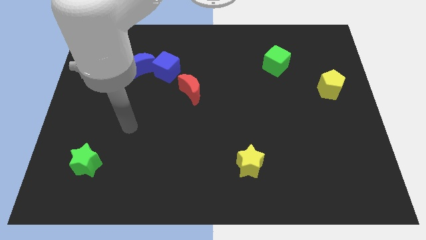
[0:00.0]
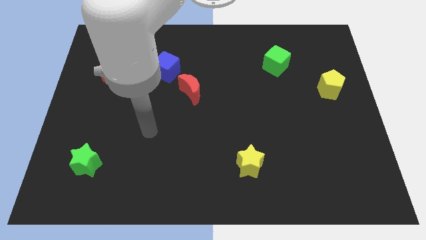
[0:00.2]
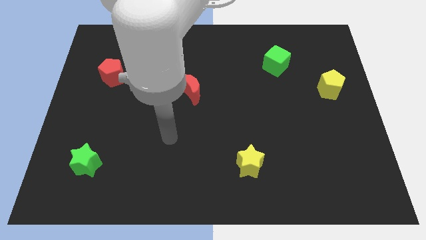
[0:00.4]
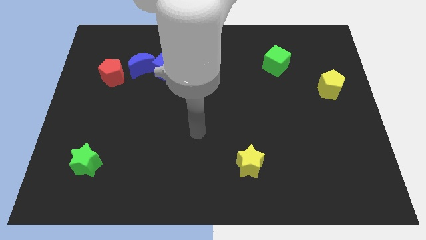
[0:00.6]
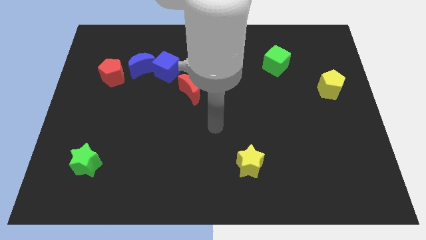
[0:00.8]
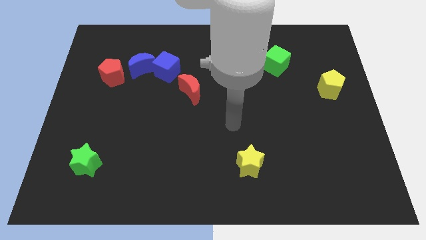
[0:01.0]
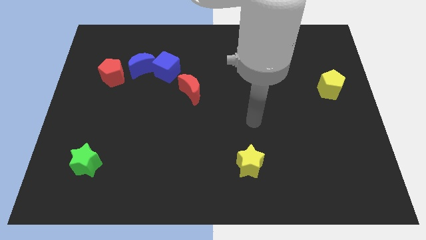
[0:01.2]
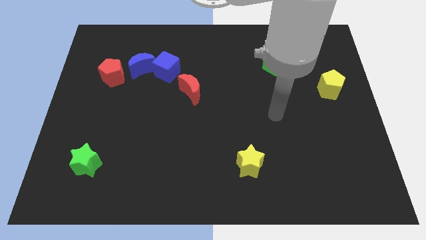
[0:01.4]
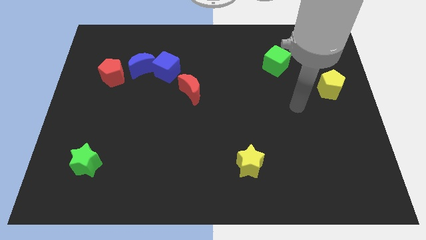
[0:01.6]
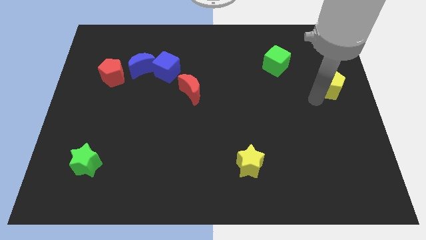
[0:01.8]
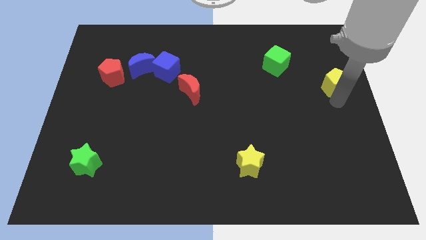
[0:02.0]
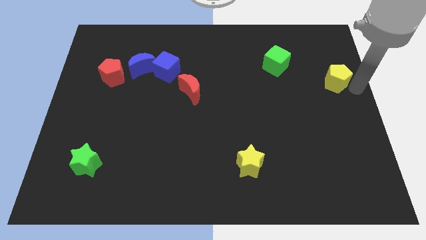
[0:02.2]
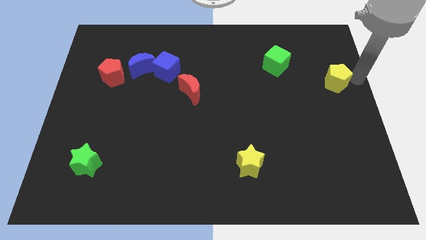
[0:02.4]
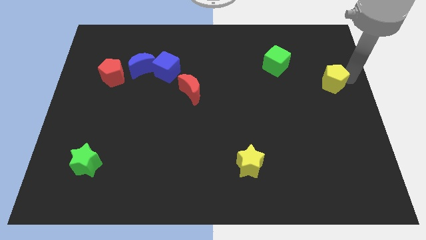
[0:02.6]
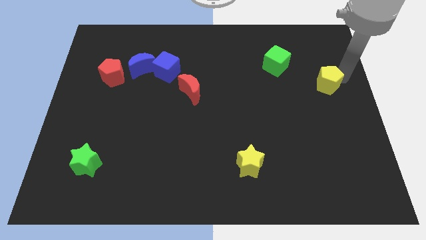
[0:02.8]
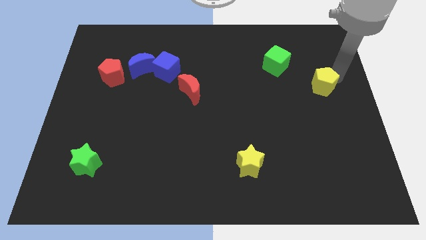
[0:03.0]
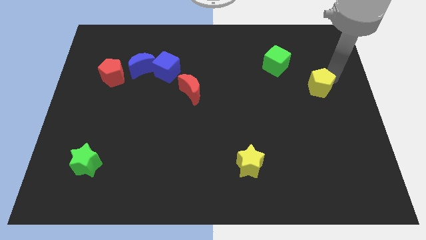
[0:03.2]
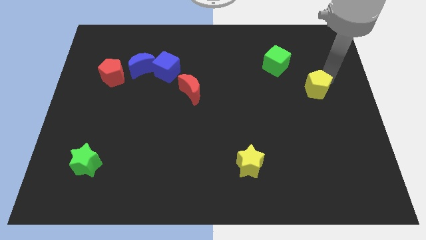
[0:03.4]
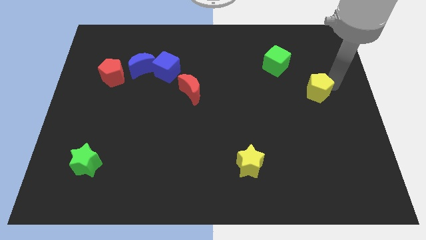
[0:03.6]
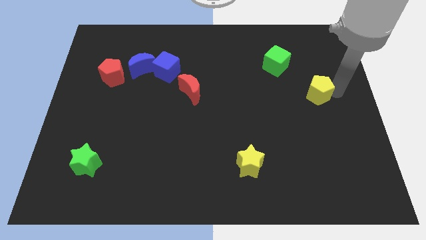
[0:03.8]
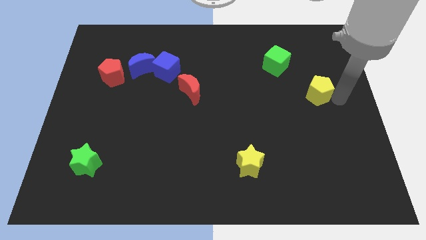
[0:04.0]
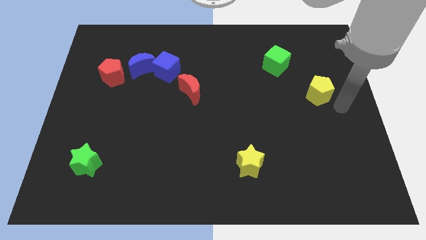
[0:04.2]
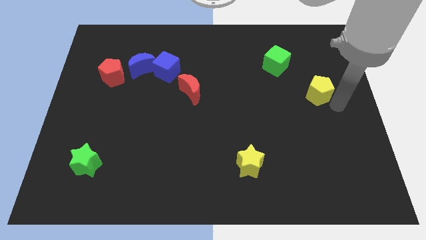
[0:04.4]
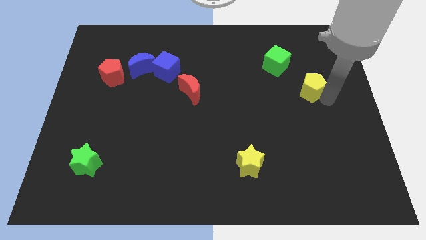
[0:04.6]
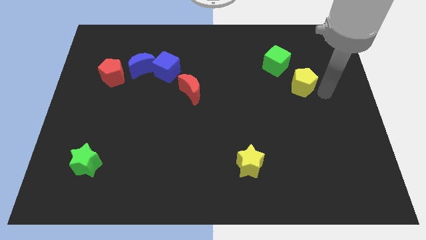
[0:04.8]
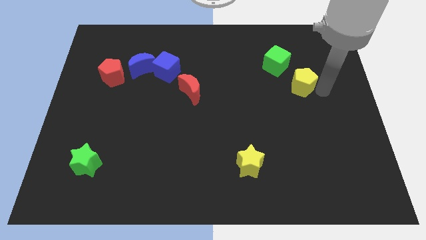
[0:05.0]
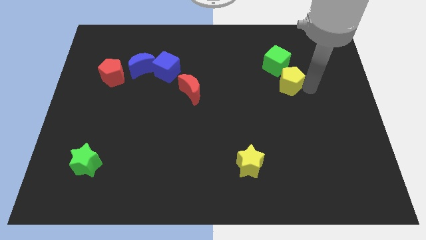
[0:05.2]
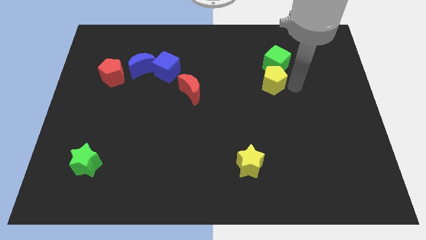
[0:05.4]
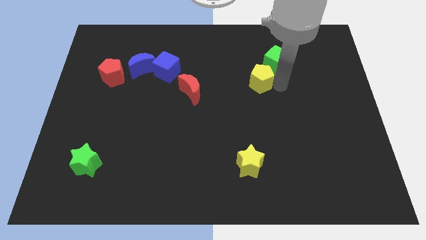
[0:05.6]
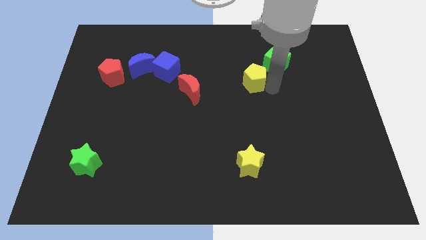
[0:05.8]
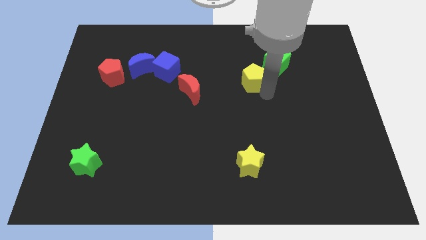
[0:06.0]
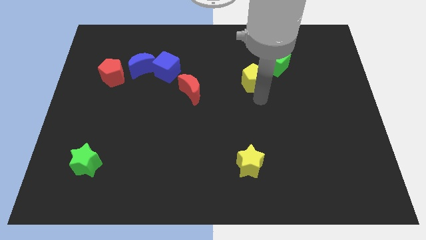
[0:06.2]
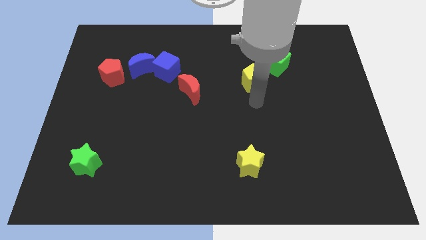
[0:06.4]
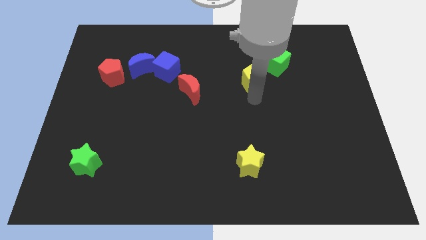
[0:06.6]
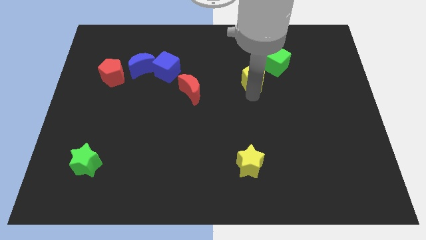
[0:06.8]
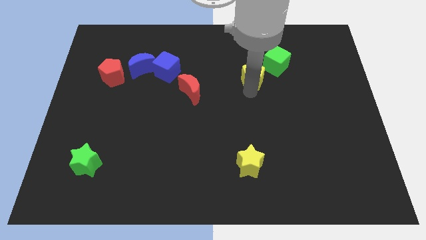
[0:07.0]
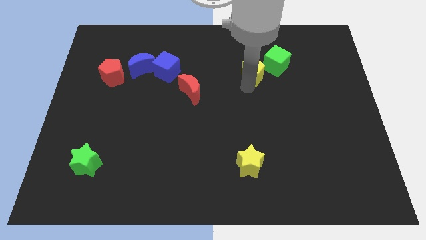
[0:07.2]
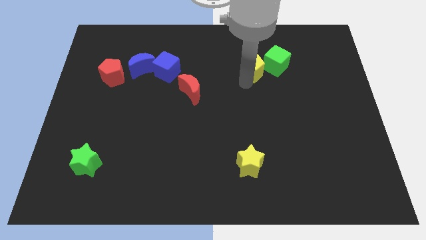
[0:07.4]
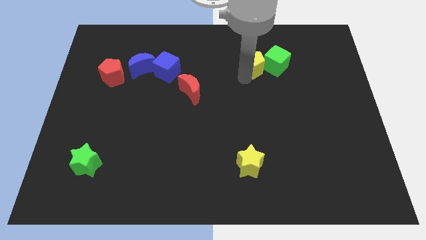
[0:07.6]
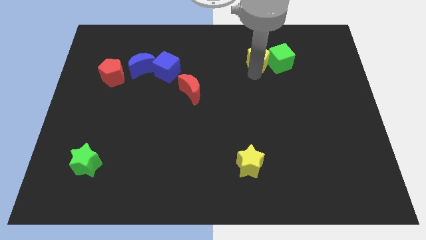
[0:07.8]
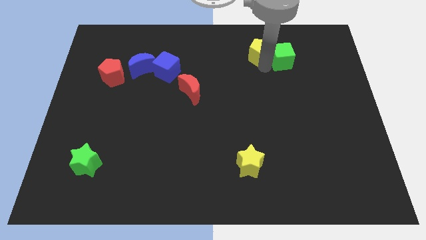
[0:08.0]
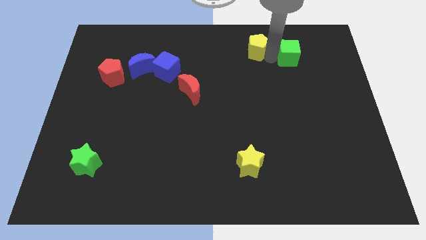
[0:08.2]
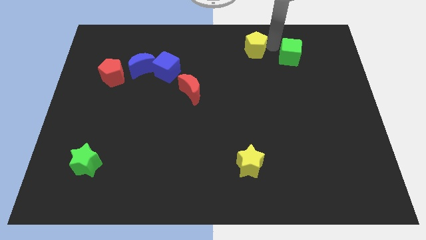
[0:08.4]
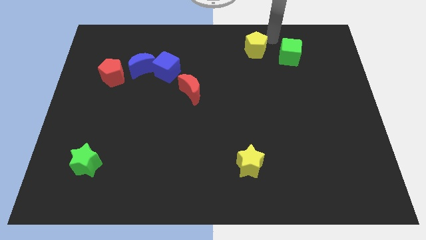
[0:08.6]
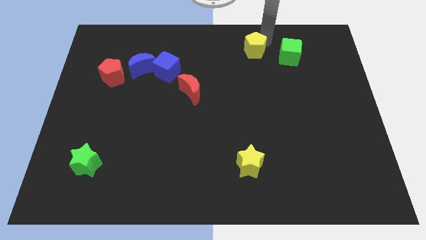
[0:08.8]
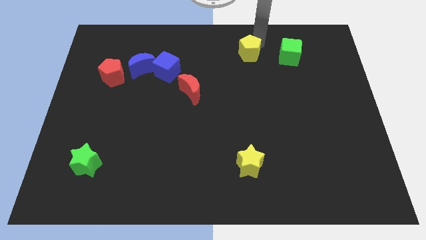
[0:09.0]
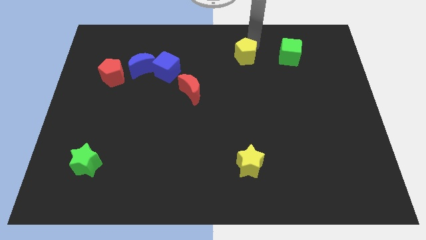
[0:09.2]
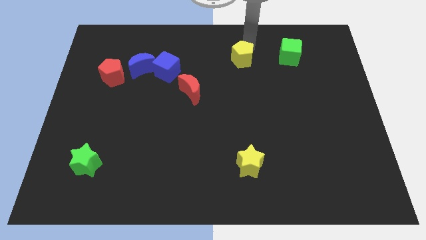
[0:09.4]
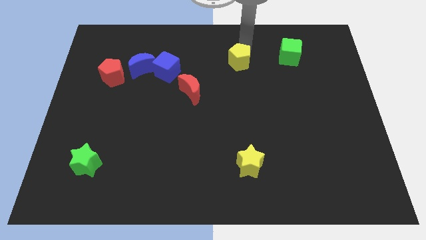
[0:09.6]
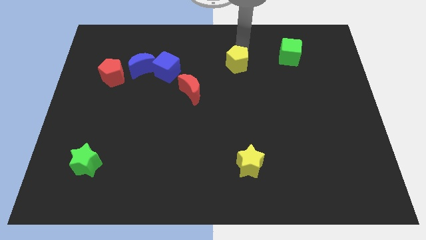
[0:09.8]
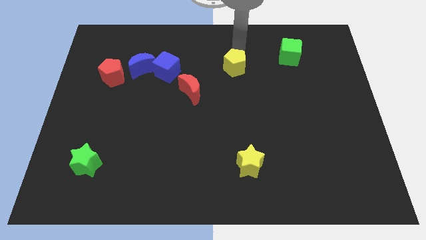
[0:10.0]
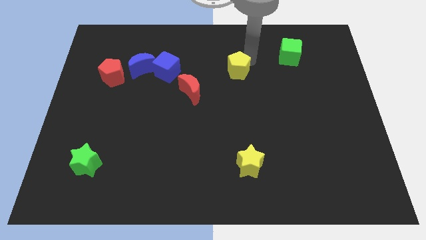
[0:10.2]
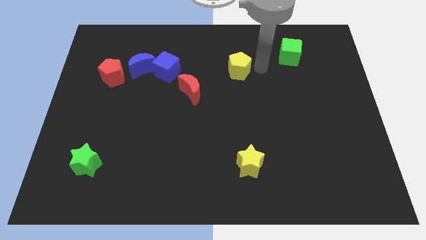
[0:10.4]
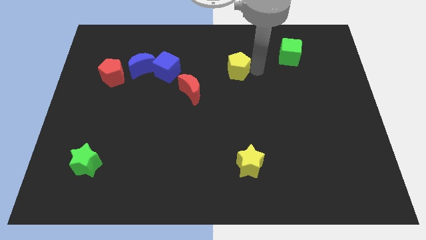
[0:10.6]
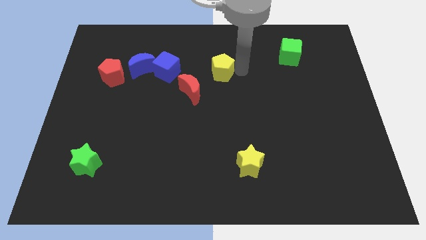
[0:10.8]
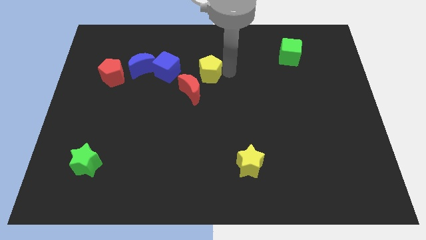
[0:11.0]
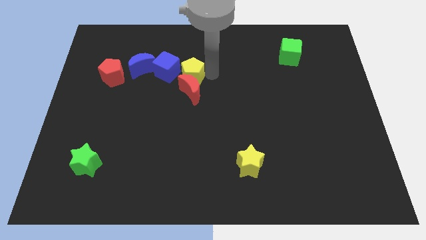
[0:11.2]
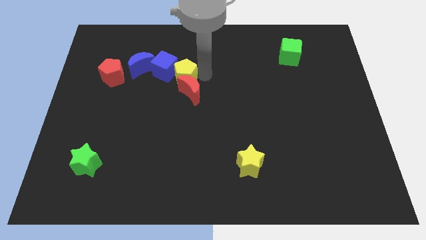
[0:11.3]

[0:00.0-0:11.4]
move the yellow pentagon towards the blue cube
